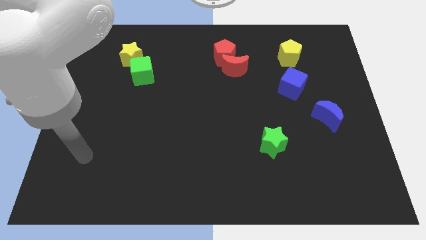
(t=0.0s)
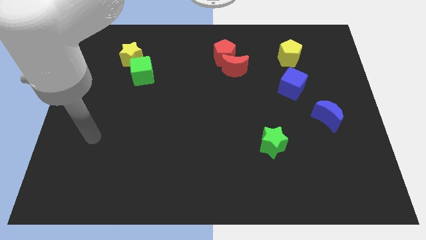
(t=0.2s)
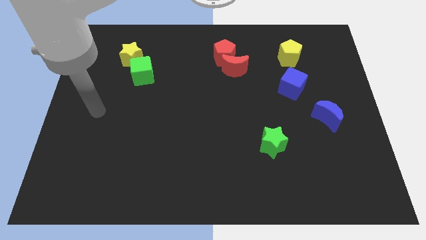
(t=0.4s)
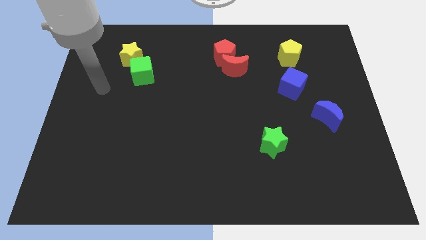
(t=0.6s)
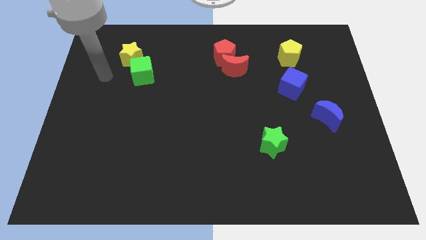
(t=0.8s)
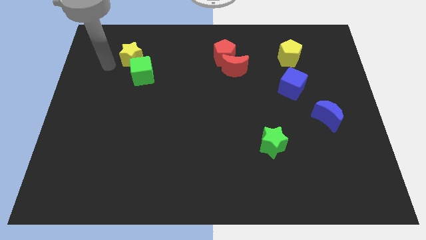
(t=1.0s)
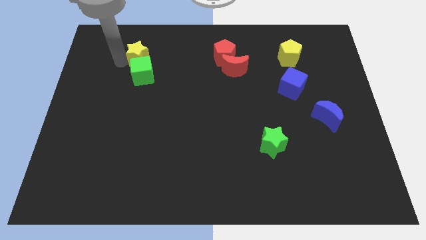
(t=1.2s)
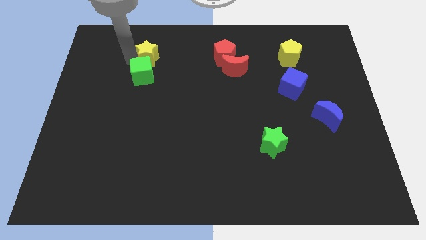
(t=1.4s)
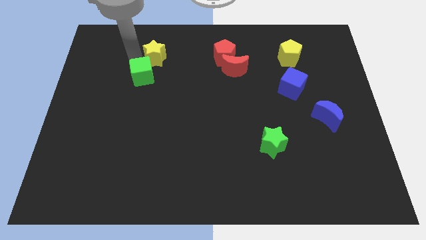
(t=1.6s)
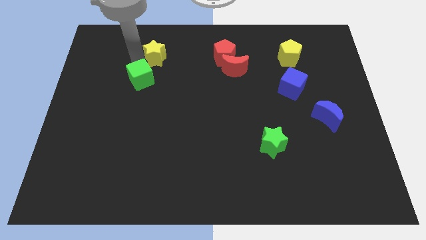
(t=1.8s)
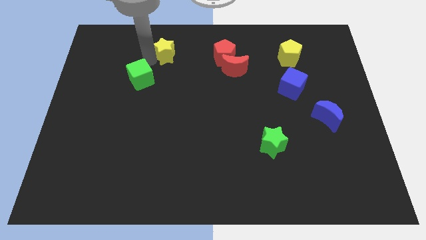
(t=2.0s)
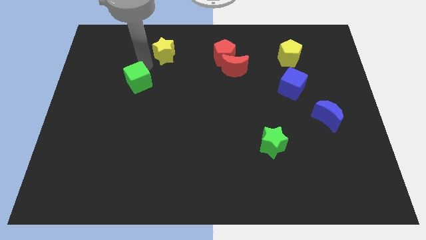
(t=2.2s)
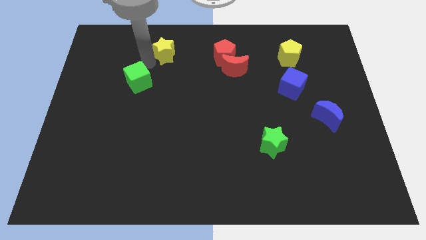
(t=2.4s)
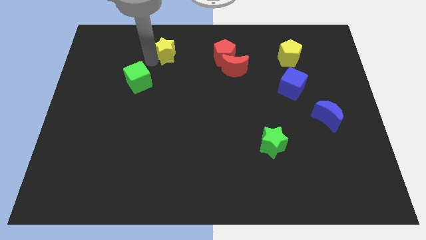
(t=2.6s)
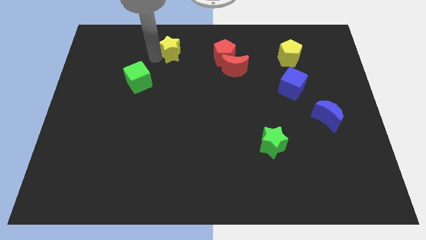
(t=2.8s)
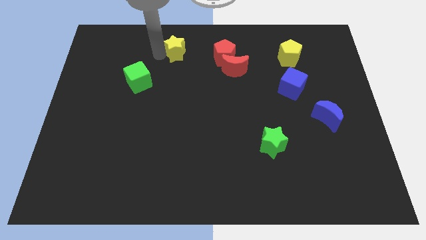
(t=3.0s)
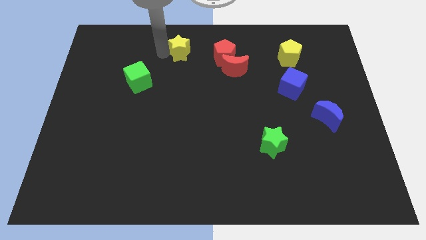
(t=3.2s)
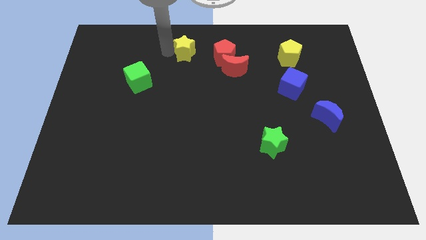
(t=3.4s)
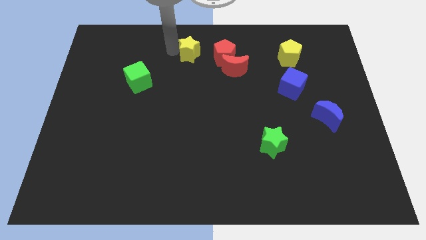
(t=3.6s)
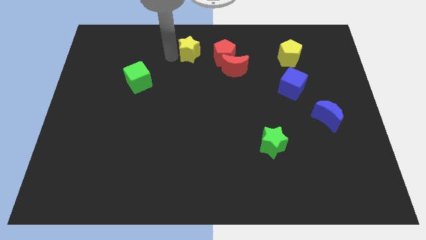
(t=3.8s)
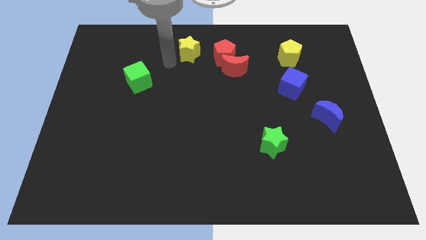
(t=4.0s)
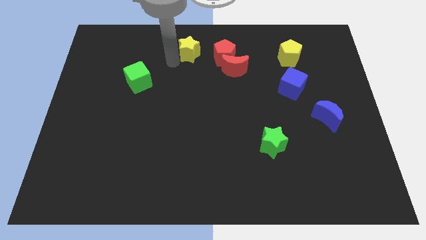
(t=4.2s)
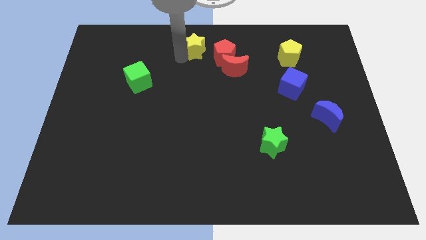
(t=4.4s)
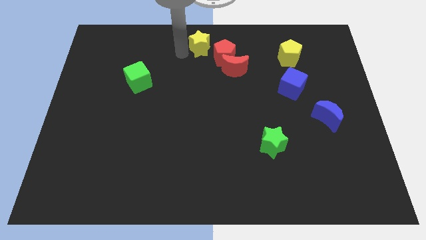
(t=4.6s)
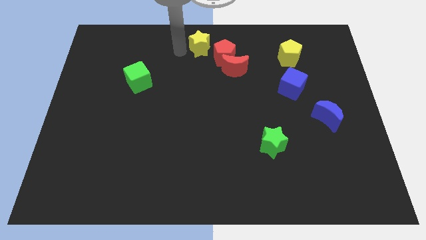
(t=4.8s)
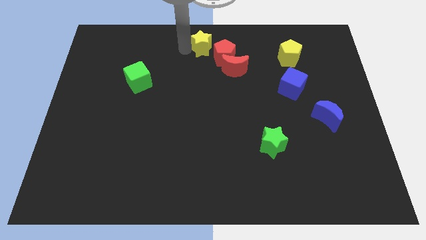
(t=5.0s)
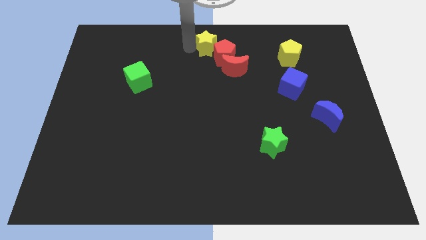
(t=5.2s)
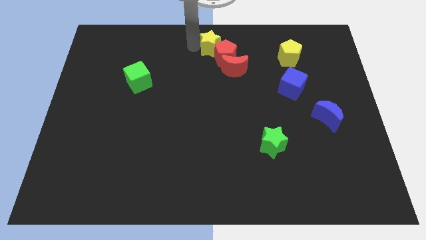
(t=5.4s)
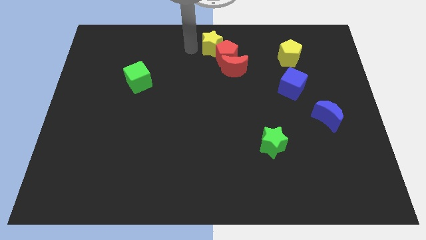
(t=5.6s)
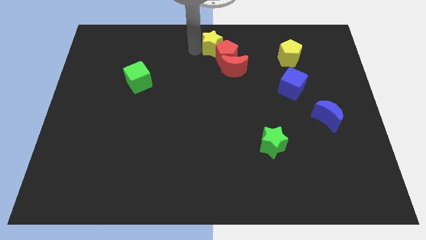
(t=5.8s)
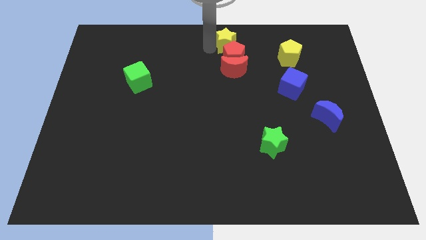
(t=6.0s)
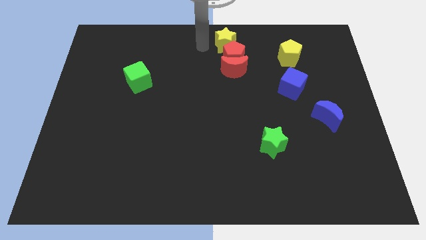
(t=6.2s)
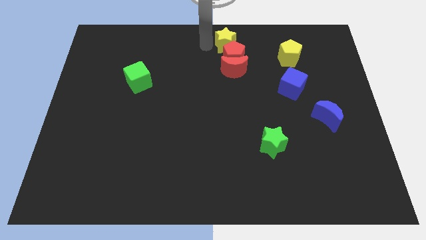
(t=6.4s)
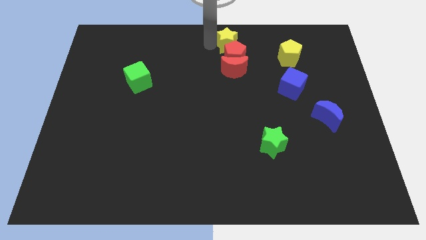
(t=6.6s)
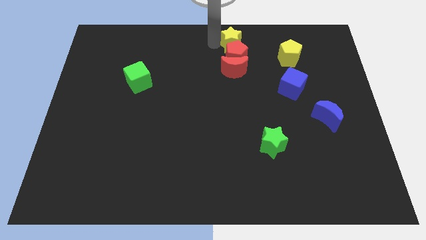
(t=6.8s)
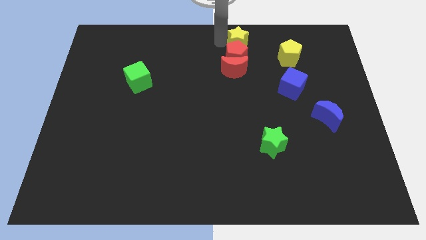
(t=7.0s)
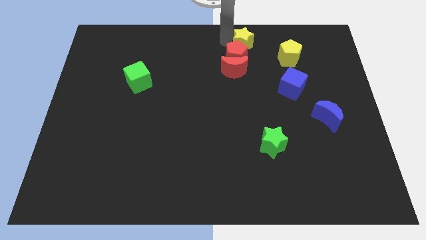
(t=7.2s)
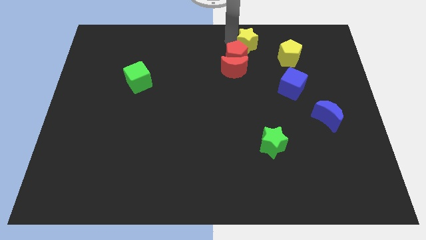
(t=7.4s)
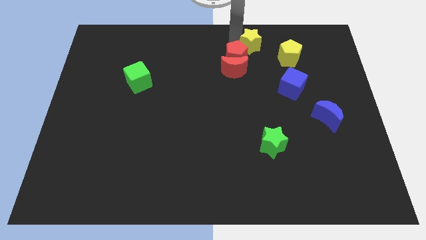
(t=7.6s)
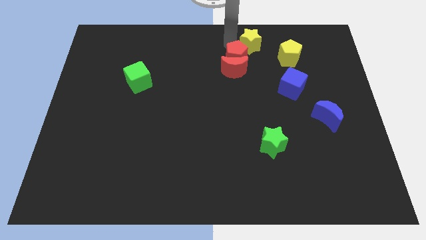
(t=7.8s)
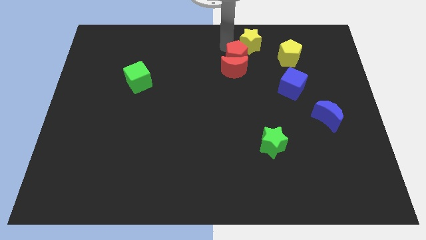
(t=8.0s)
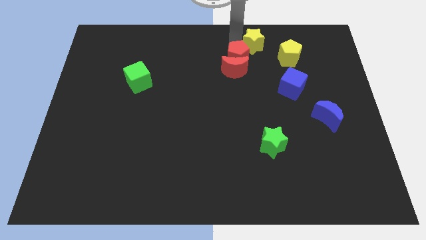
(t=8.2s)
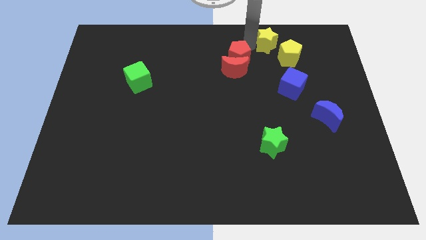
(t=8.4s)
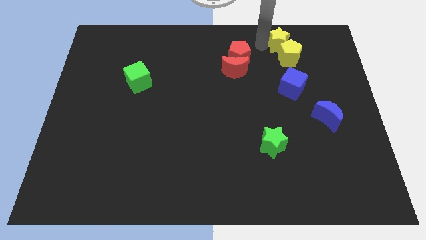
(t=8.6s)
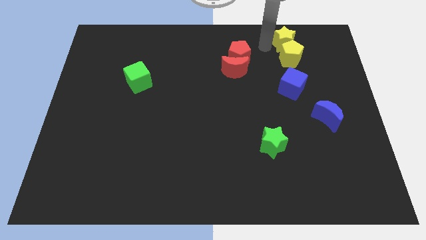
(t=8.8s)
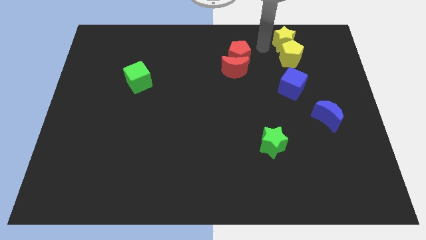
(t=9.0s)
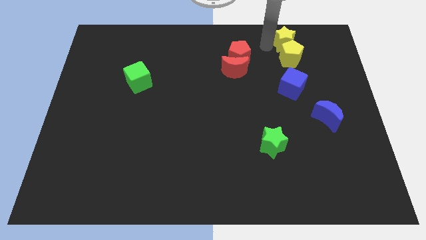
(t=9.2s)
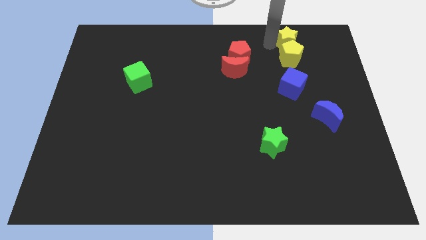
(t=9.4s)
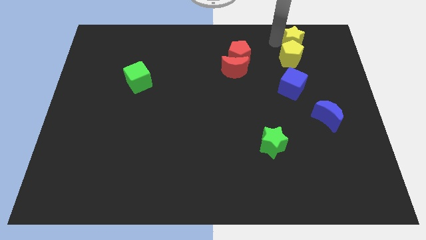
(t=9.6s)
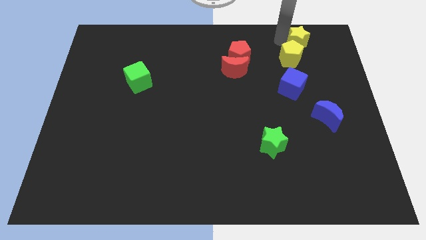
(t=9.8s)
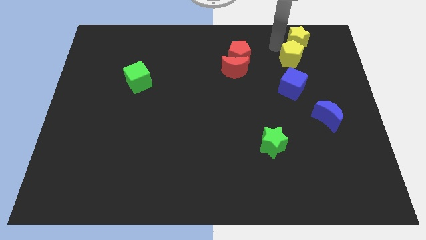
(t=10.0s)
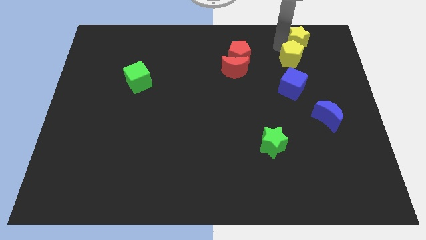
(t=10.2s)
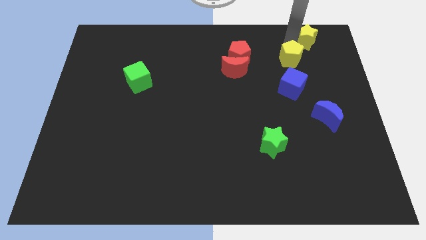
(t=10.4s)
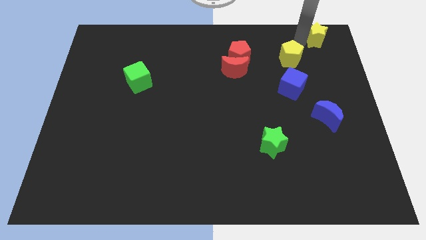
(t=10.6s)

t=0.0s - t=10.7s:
move the yellow star to the top right corner

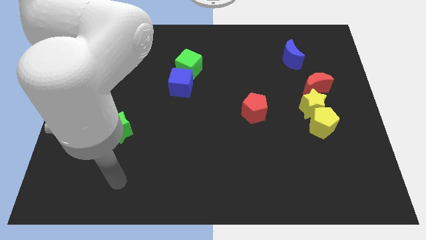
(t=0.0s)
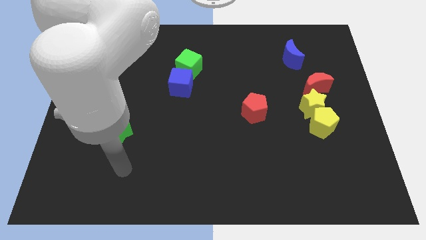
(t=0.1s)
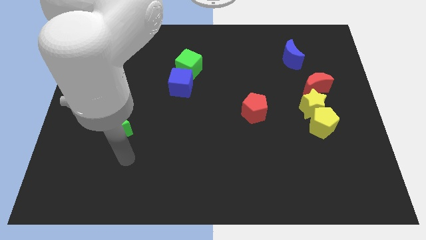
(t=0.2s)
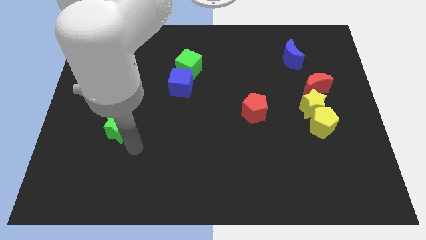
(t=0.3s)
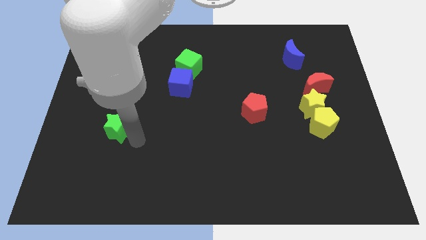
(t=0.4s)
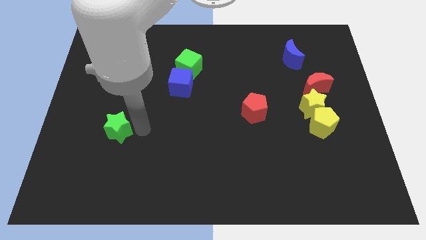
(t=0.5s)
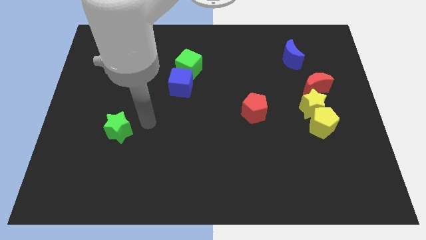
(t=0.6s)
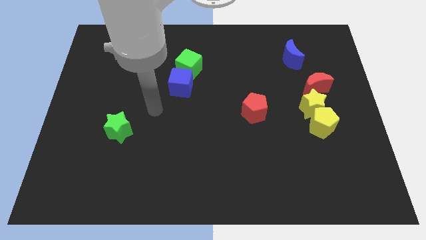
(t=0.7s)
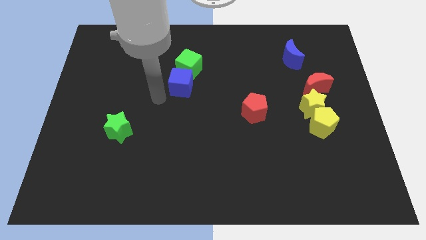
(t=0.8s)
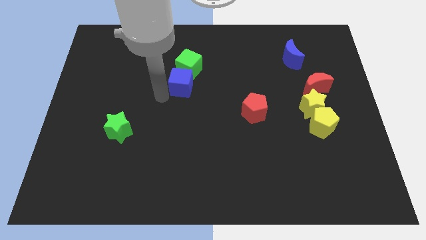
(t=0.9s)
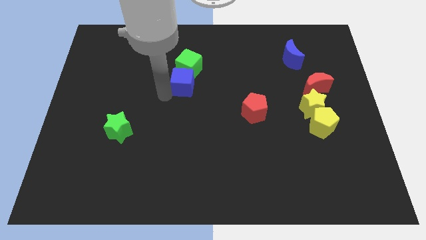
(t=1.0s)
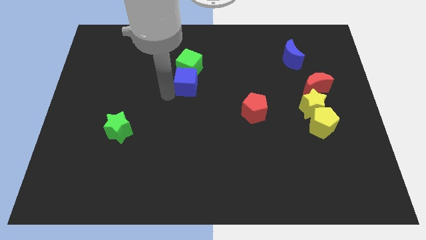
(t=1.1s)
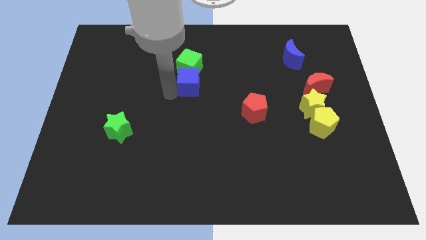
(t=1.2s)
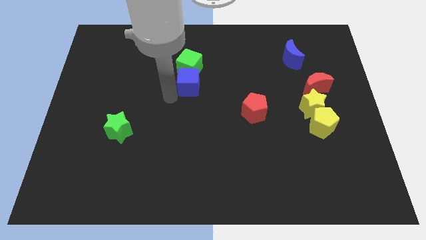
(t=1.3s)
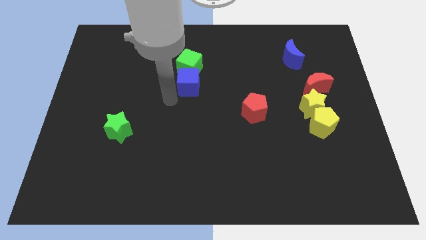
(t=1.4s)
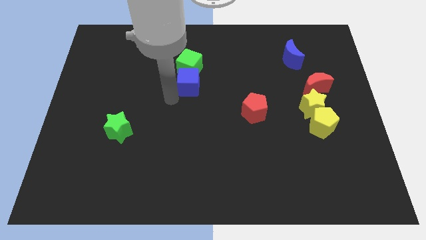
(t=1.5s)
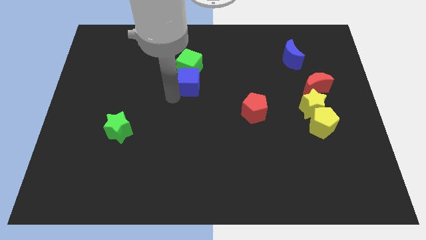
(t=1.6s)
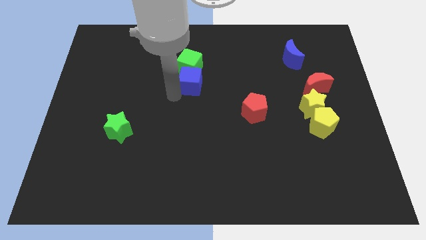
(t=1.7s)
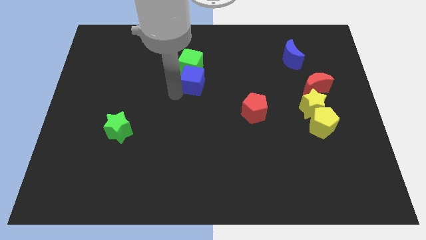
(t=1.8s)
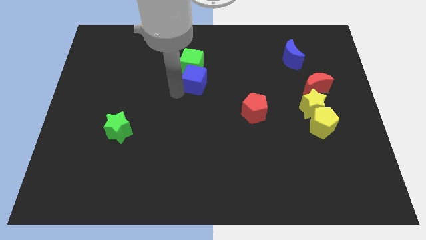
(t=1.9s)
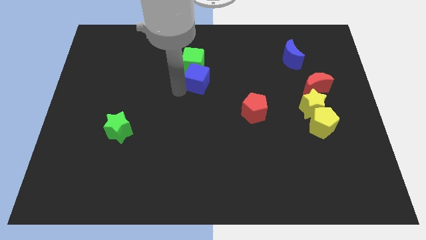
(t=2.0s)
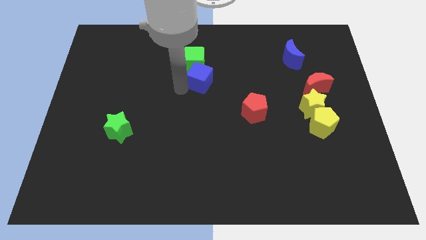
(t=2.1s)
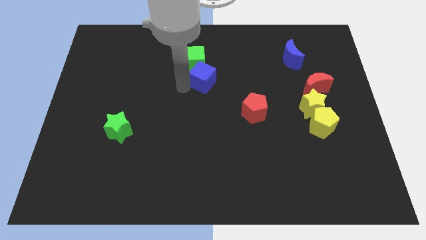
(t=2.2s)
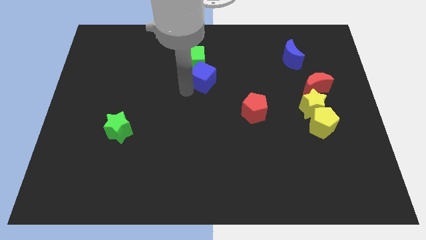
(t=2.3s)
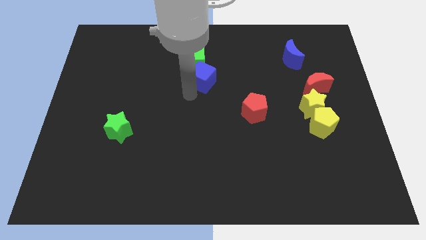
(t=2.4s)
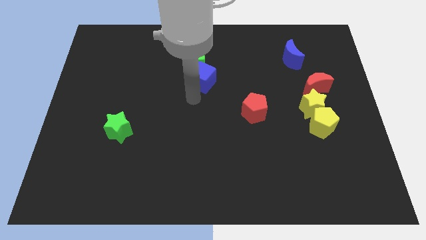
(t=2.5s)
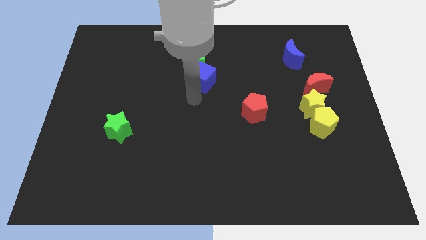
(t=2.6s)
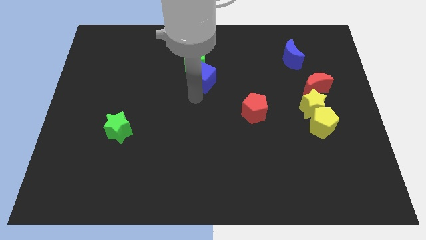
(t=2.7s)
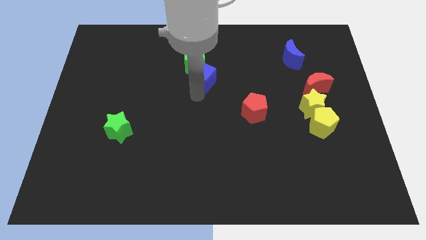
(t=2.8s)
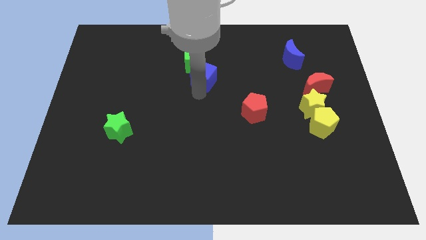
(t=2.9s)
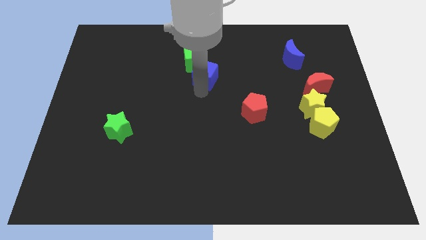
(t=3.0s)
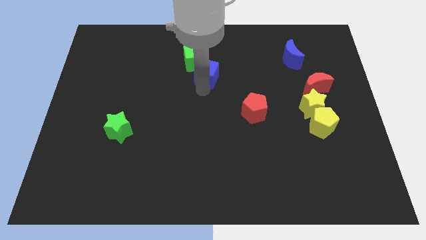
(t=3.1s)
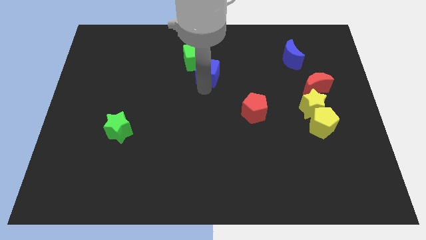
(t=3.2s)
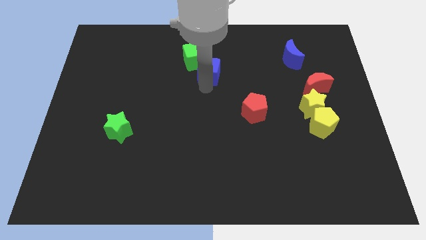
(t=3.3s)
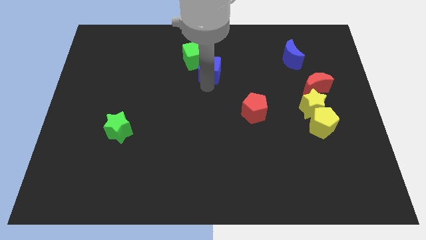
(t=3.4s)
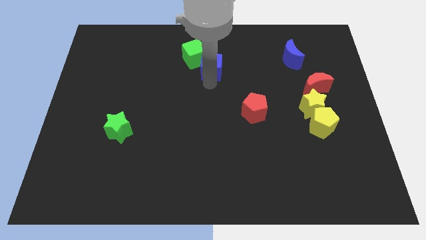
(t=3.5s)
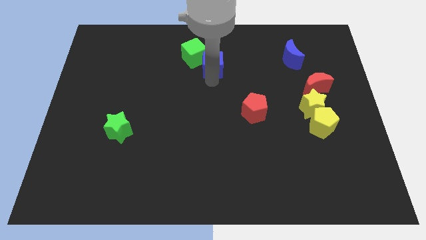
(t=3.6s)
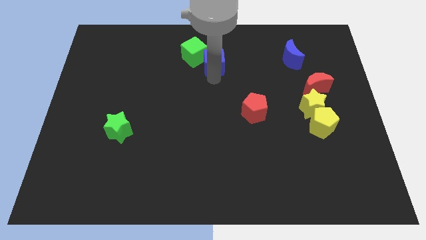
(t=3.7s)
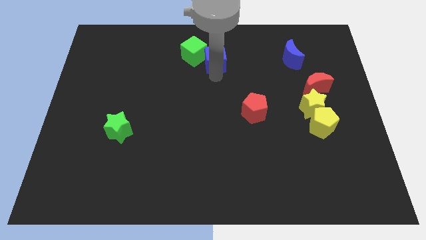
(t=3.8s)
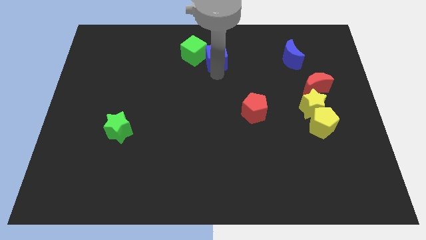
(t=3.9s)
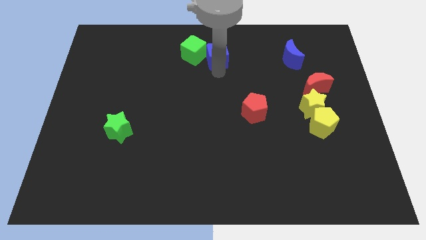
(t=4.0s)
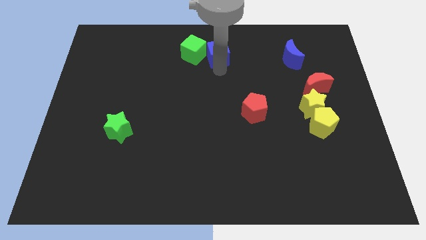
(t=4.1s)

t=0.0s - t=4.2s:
put the blue cube to the towards your base
